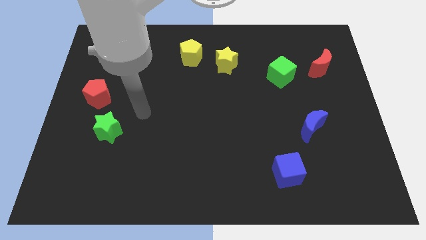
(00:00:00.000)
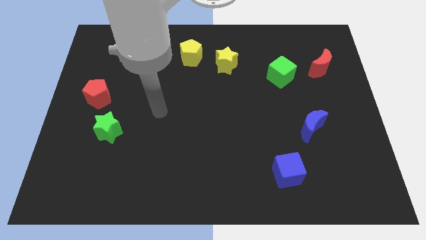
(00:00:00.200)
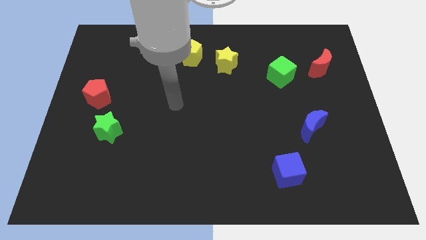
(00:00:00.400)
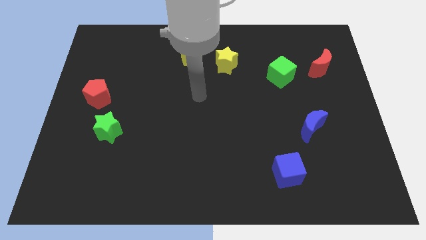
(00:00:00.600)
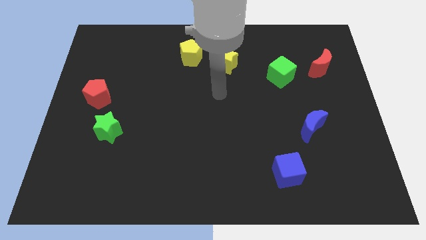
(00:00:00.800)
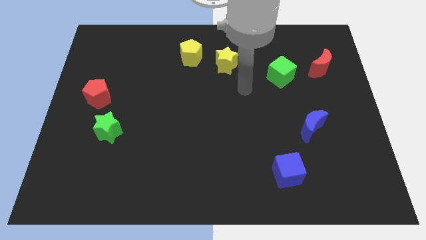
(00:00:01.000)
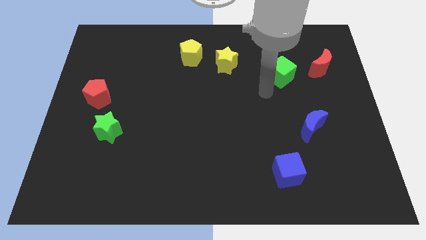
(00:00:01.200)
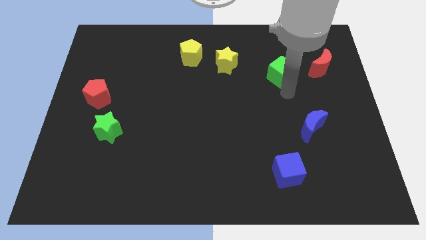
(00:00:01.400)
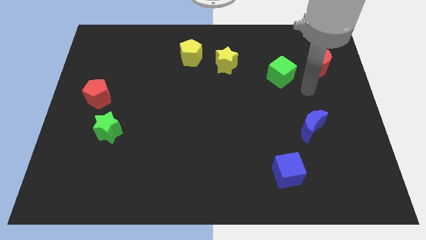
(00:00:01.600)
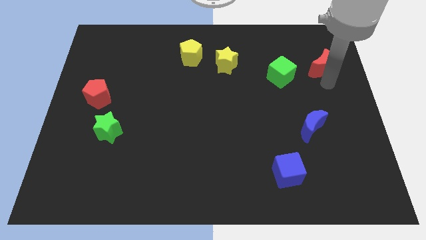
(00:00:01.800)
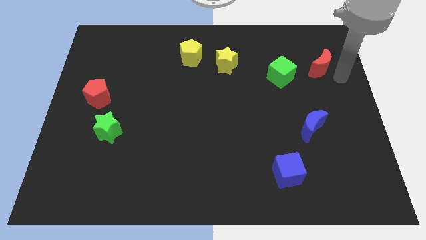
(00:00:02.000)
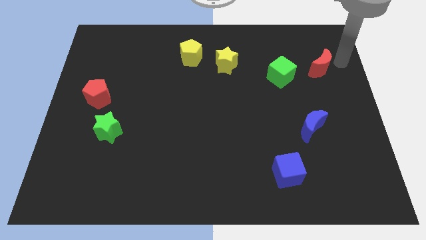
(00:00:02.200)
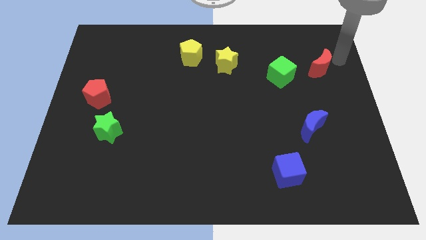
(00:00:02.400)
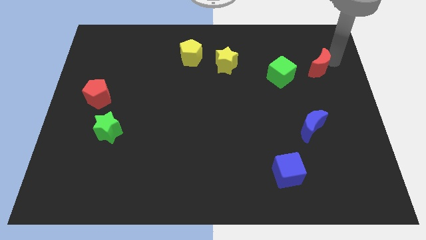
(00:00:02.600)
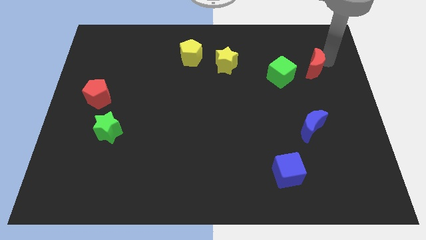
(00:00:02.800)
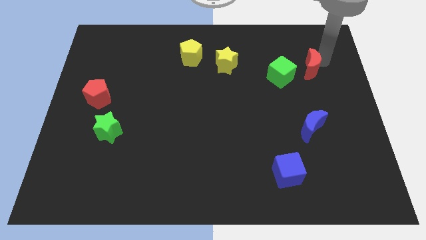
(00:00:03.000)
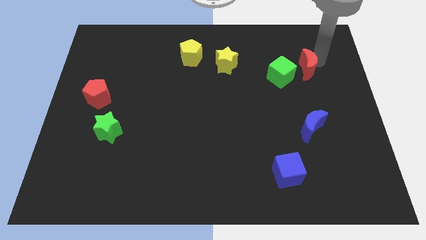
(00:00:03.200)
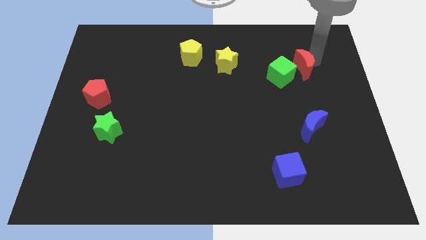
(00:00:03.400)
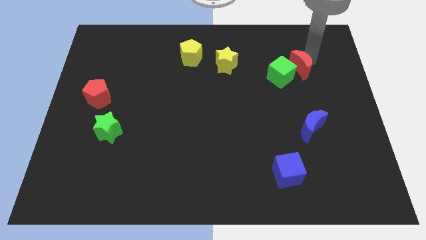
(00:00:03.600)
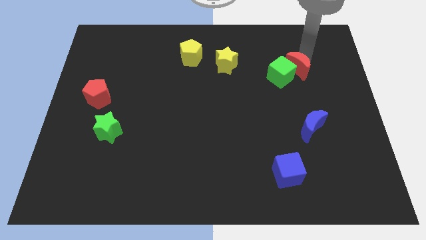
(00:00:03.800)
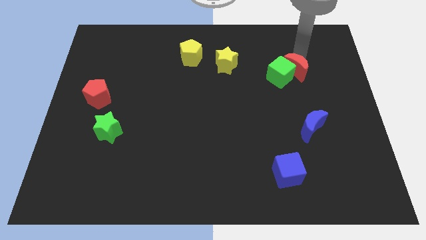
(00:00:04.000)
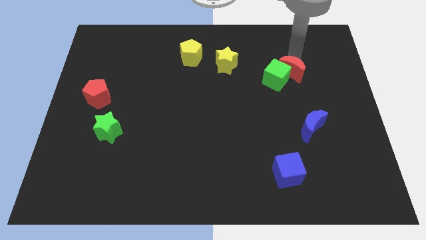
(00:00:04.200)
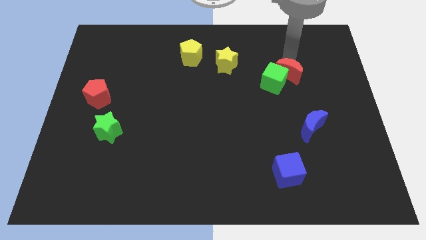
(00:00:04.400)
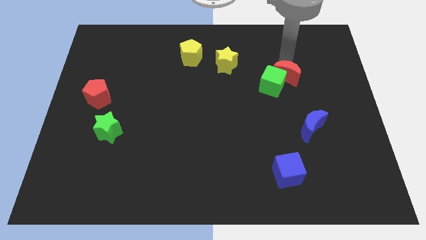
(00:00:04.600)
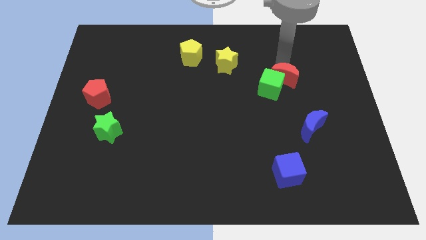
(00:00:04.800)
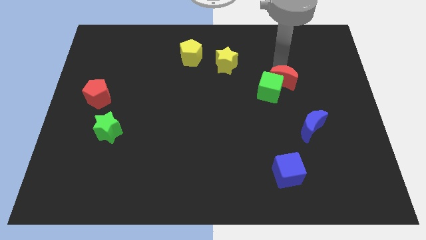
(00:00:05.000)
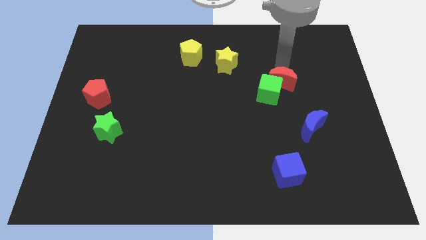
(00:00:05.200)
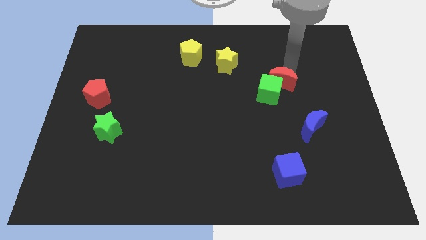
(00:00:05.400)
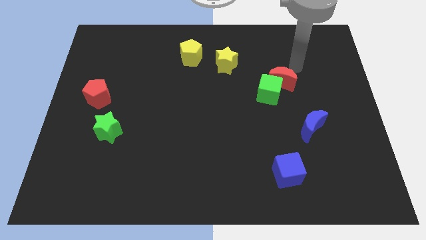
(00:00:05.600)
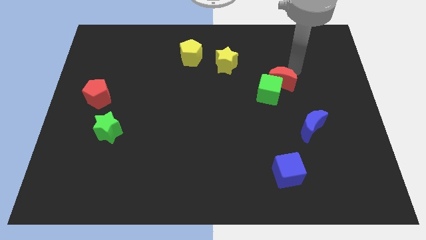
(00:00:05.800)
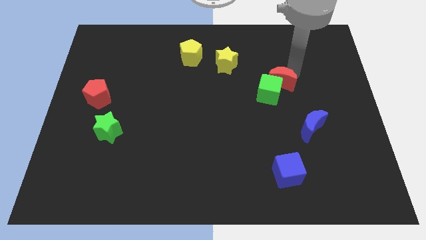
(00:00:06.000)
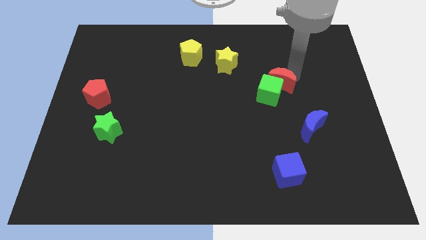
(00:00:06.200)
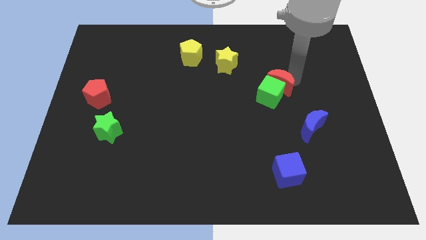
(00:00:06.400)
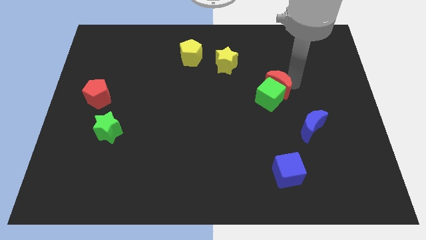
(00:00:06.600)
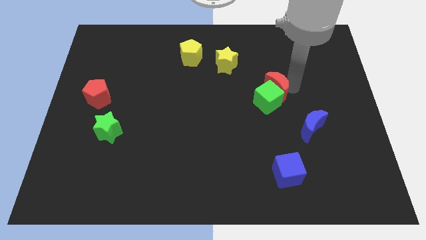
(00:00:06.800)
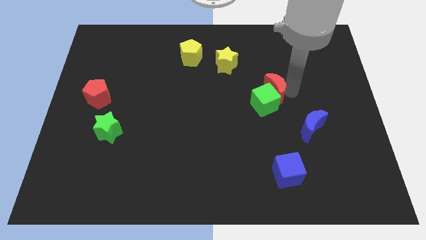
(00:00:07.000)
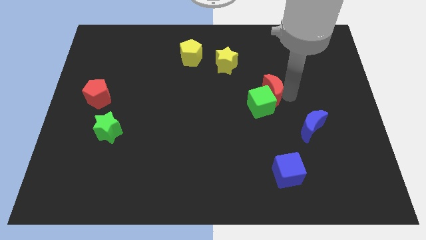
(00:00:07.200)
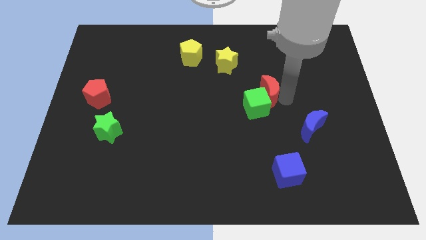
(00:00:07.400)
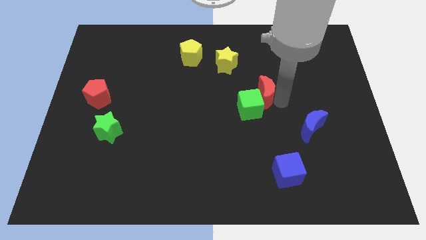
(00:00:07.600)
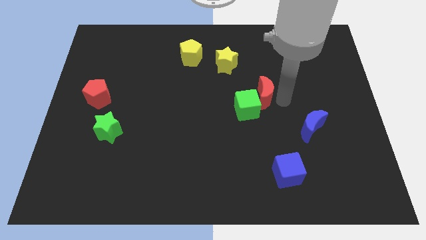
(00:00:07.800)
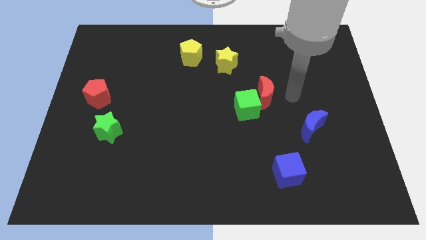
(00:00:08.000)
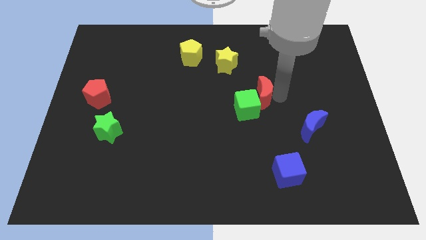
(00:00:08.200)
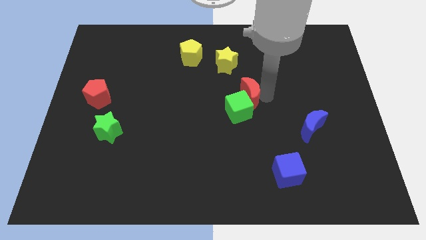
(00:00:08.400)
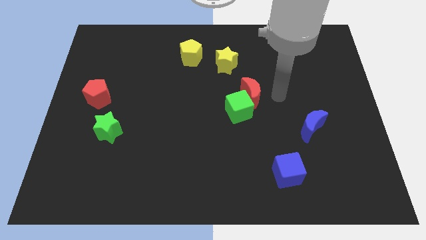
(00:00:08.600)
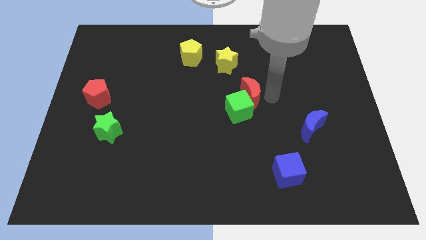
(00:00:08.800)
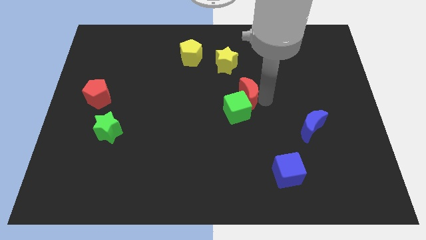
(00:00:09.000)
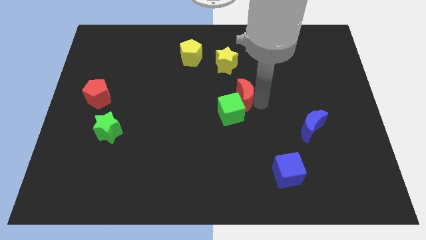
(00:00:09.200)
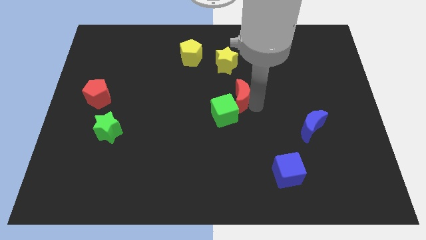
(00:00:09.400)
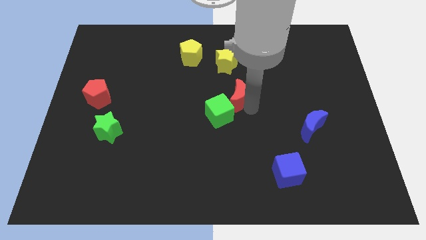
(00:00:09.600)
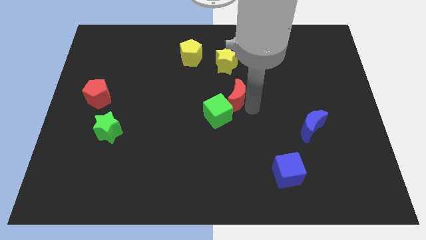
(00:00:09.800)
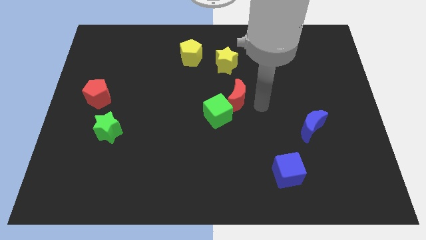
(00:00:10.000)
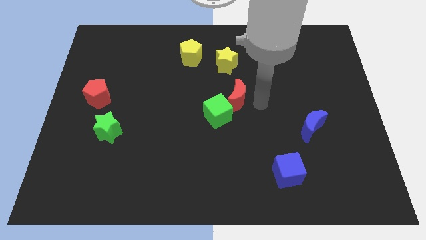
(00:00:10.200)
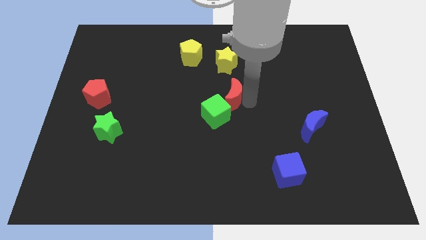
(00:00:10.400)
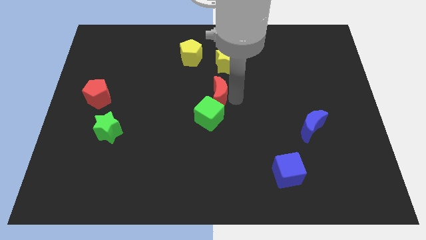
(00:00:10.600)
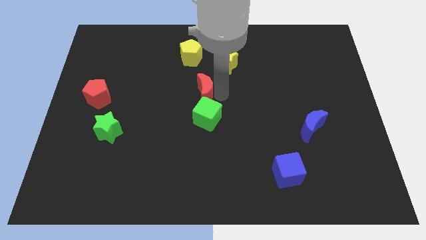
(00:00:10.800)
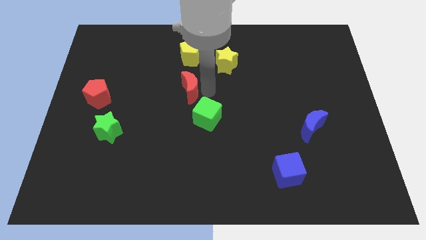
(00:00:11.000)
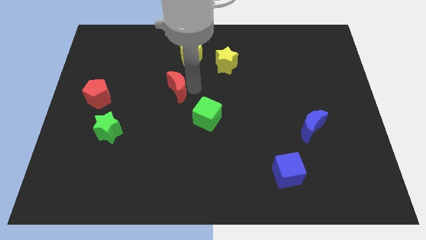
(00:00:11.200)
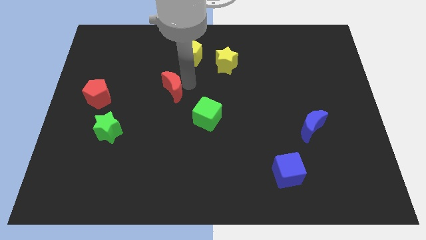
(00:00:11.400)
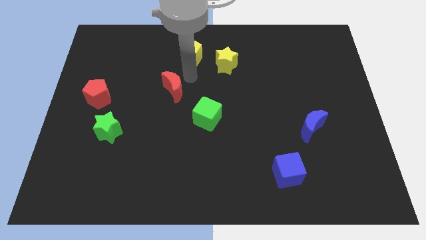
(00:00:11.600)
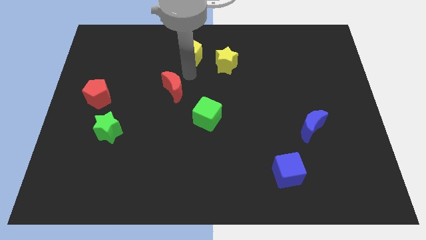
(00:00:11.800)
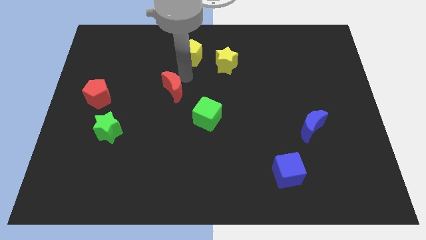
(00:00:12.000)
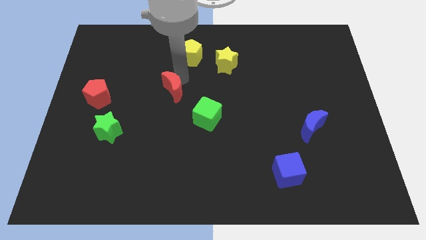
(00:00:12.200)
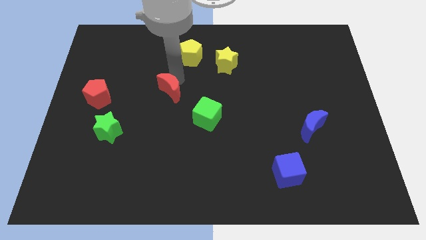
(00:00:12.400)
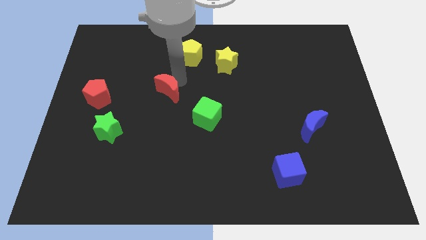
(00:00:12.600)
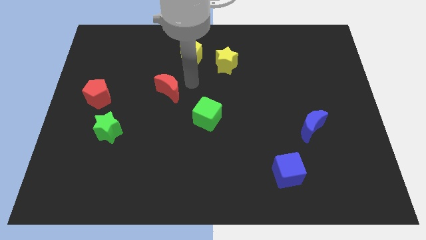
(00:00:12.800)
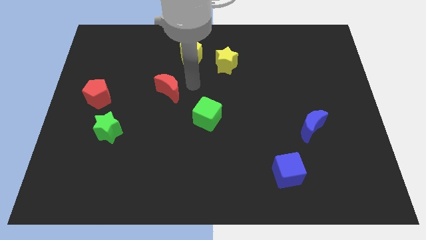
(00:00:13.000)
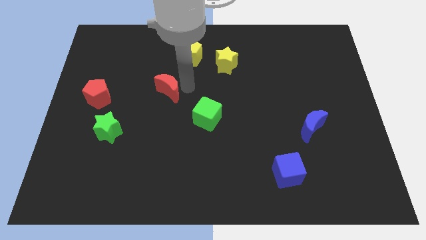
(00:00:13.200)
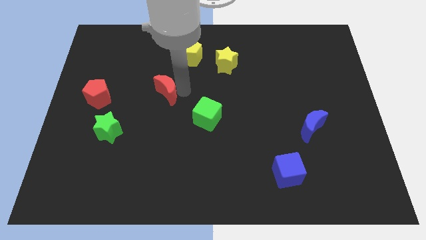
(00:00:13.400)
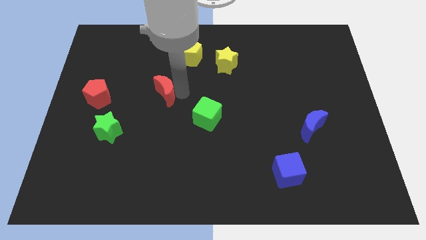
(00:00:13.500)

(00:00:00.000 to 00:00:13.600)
move the red moon to the right side of the red pentagon
